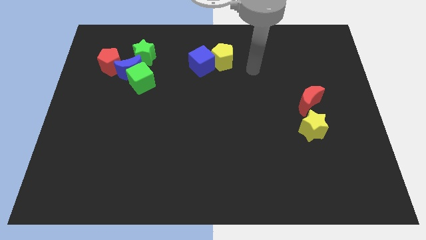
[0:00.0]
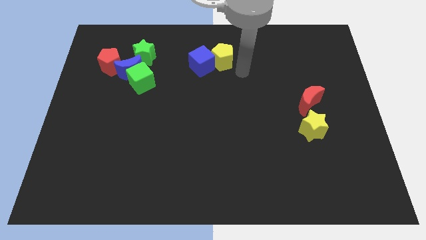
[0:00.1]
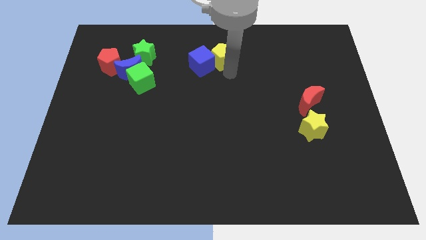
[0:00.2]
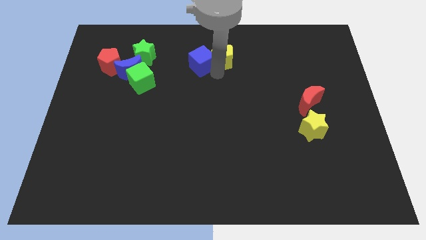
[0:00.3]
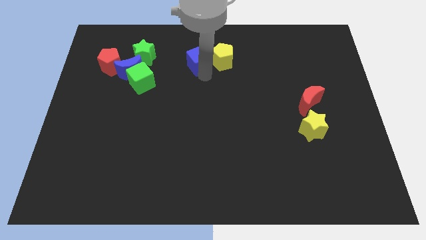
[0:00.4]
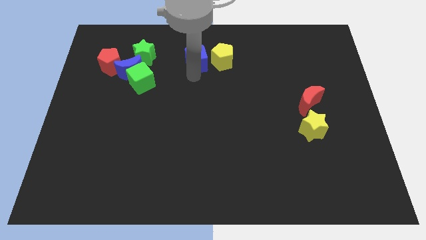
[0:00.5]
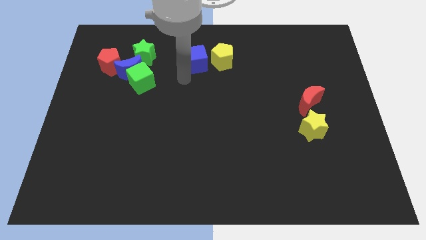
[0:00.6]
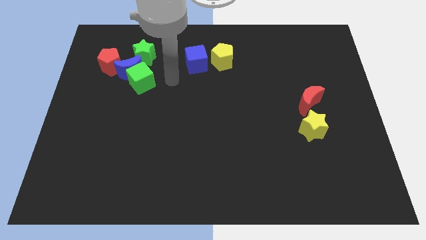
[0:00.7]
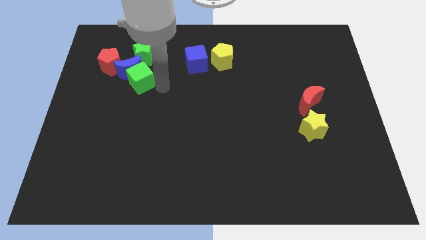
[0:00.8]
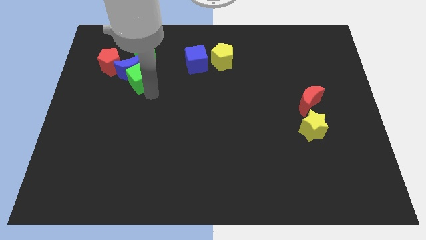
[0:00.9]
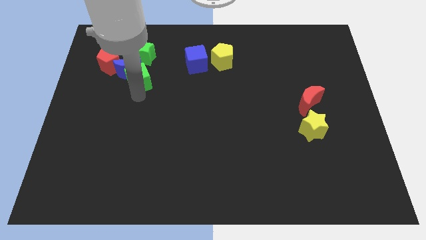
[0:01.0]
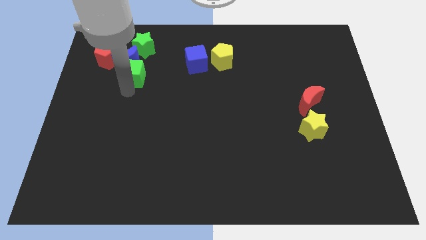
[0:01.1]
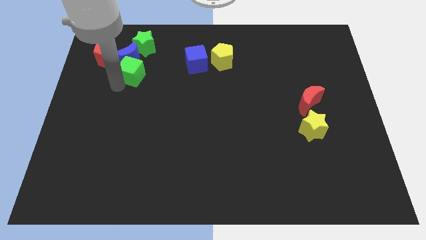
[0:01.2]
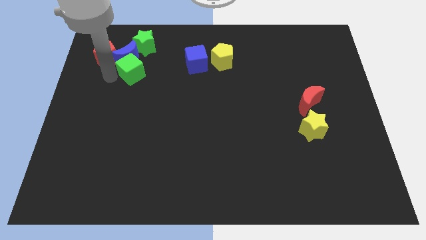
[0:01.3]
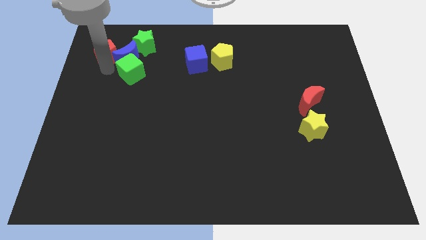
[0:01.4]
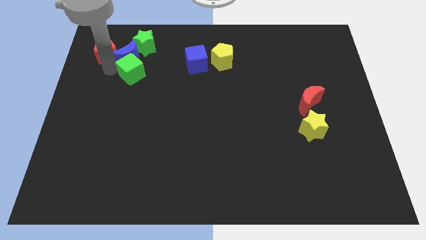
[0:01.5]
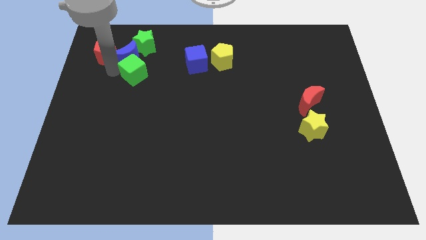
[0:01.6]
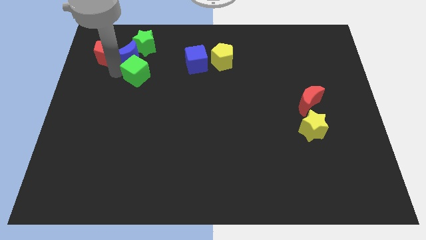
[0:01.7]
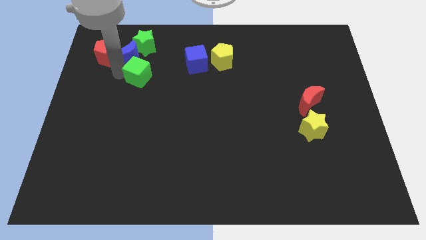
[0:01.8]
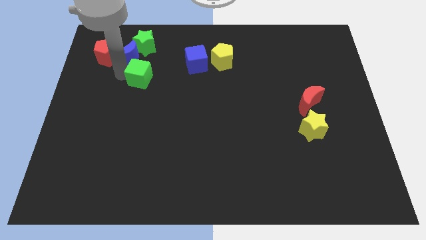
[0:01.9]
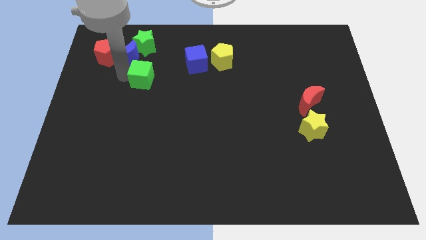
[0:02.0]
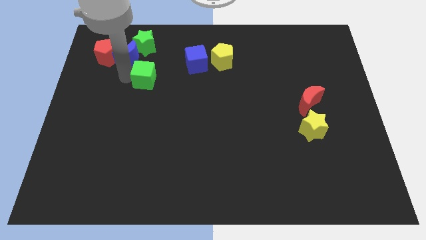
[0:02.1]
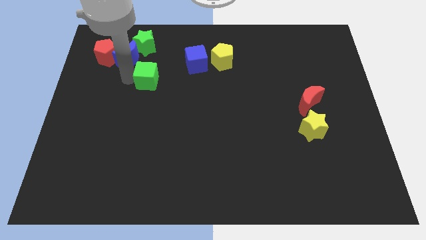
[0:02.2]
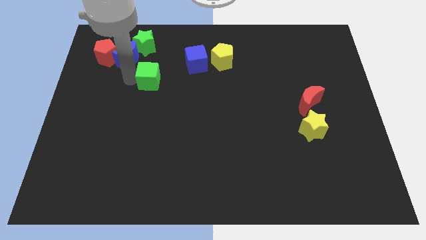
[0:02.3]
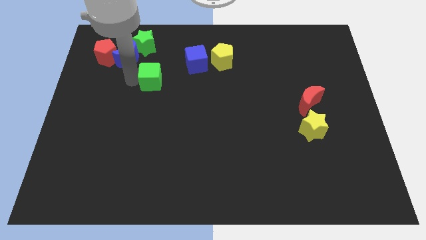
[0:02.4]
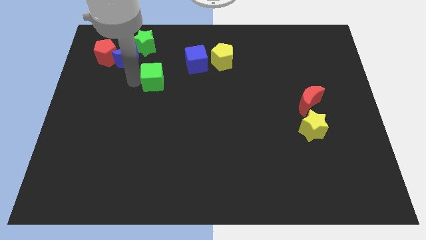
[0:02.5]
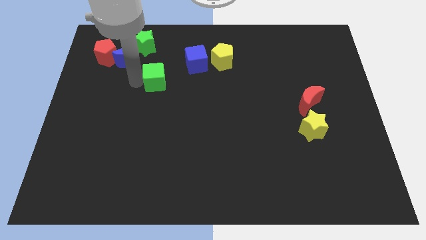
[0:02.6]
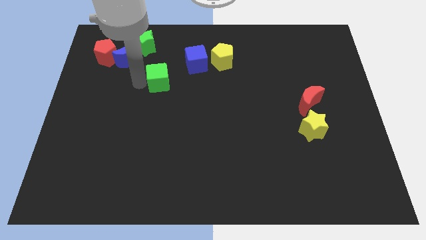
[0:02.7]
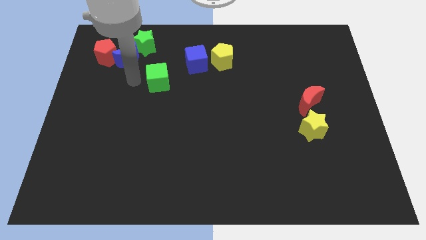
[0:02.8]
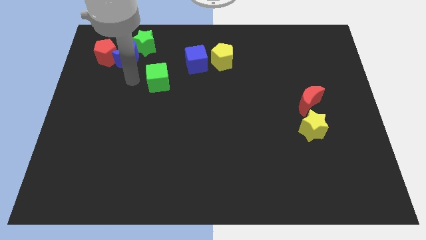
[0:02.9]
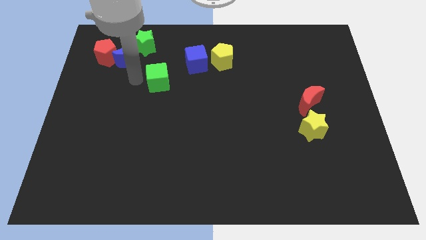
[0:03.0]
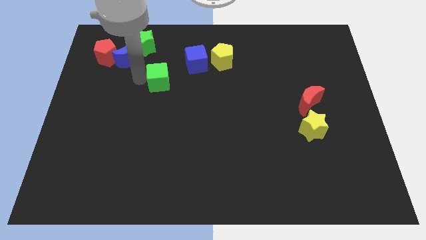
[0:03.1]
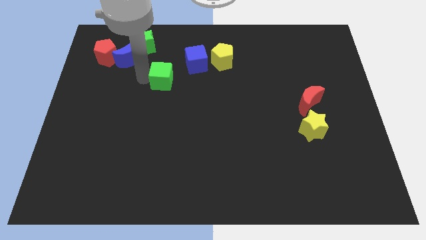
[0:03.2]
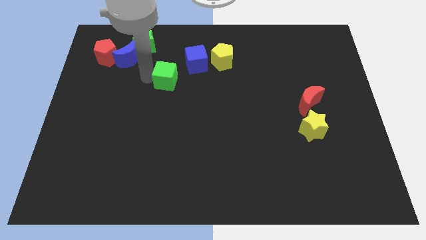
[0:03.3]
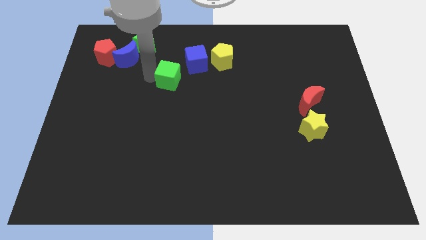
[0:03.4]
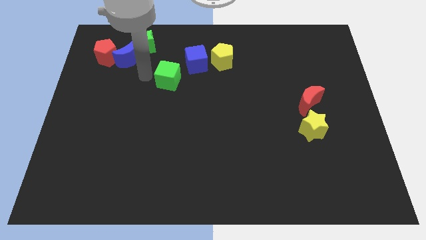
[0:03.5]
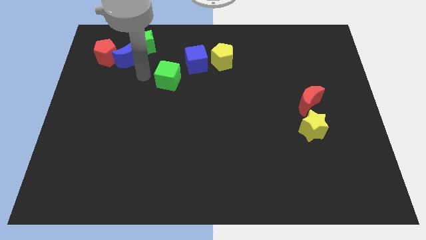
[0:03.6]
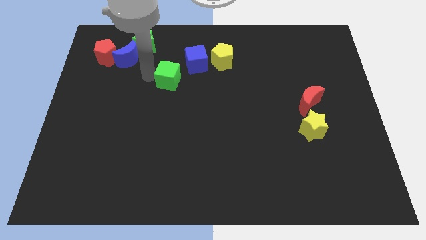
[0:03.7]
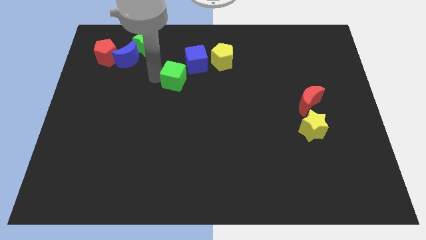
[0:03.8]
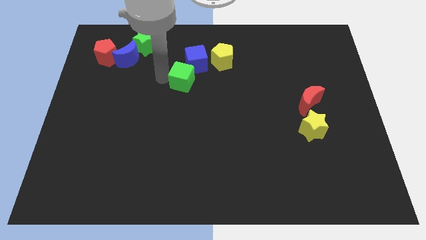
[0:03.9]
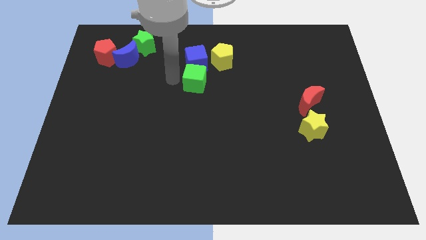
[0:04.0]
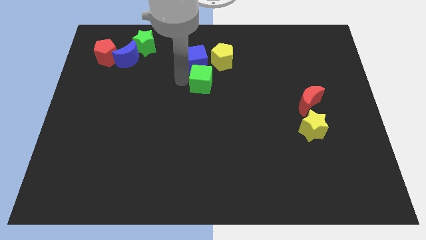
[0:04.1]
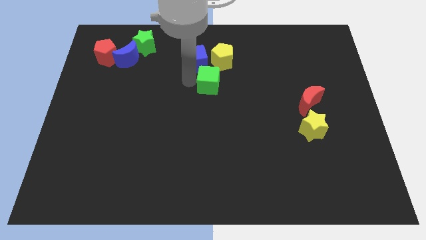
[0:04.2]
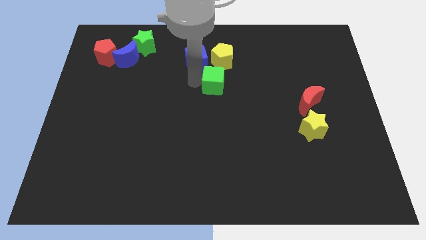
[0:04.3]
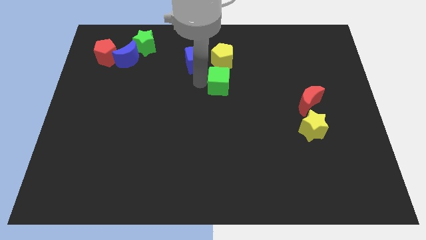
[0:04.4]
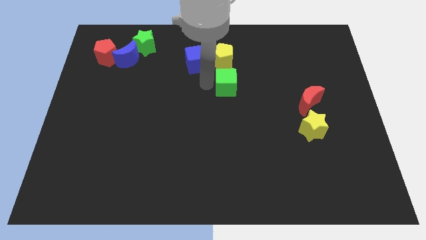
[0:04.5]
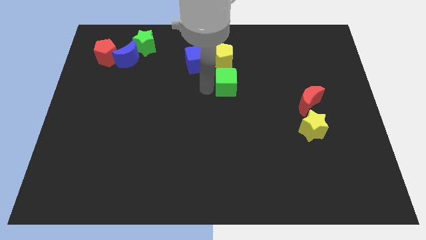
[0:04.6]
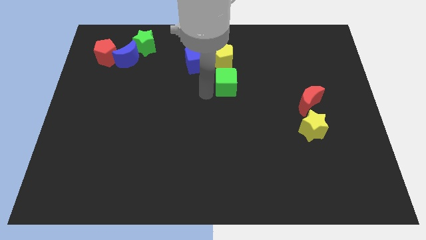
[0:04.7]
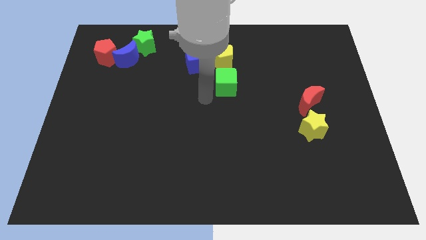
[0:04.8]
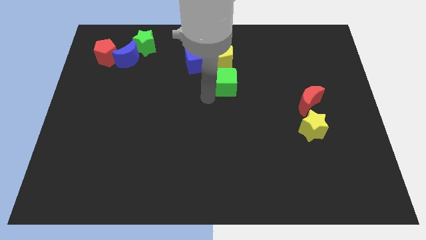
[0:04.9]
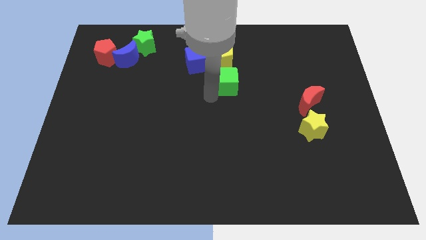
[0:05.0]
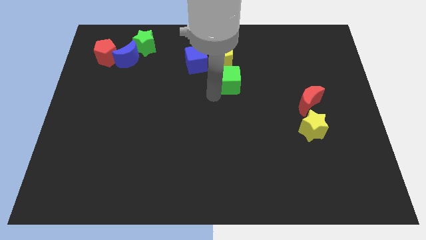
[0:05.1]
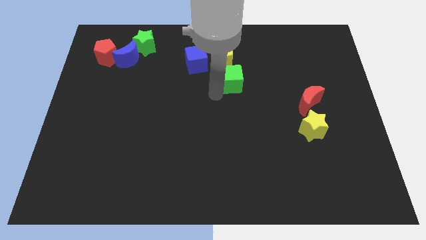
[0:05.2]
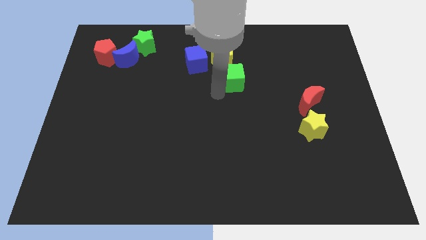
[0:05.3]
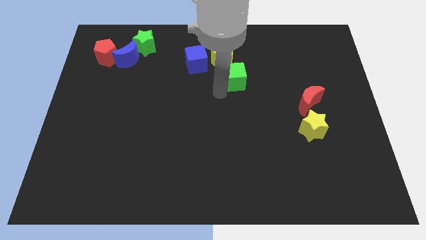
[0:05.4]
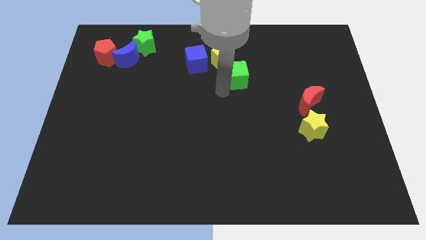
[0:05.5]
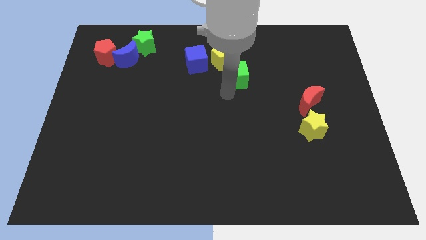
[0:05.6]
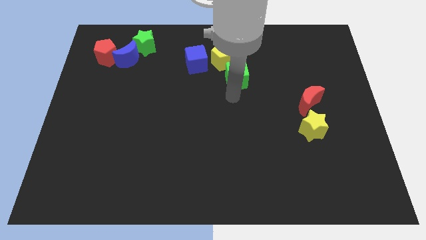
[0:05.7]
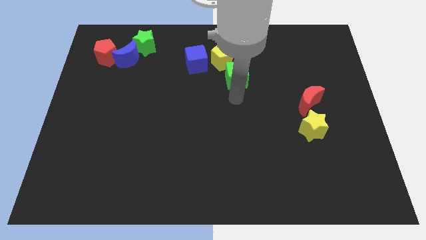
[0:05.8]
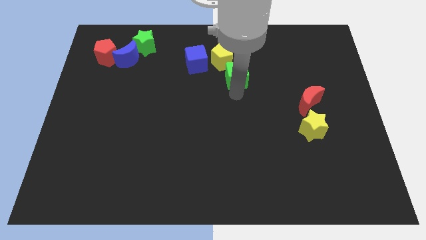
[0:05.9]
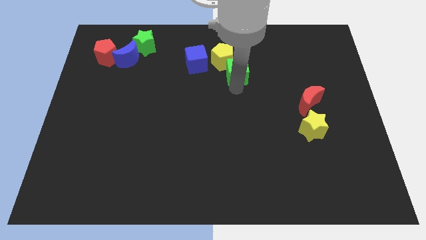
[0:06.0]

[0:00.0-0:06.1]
move the green cube to the right side of the blue cube
